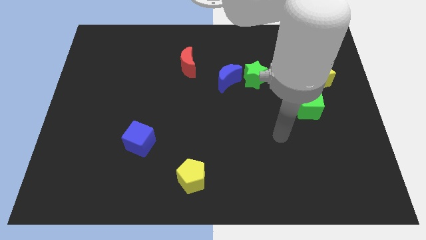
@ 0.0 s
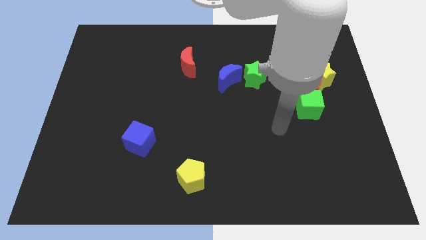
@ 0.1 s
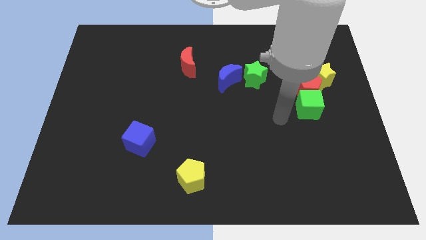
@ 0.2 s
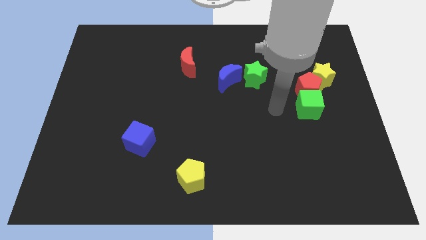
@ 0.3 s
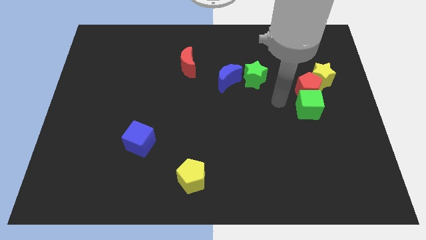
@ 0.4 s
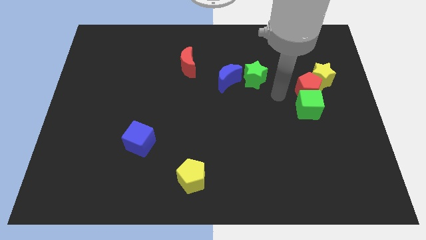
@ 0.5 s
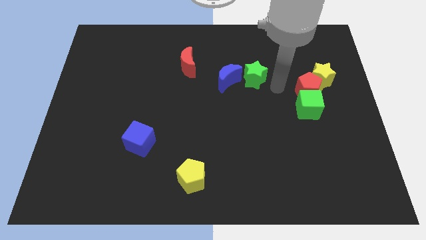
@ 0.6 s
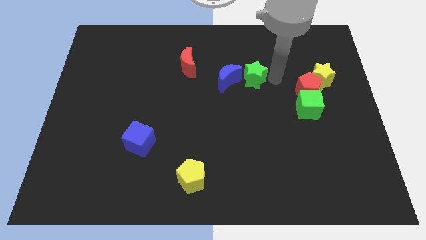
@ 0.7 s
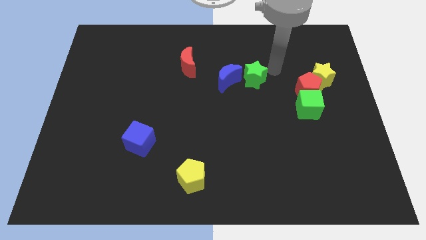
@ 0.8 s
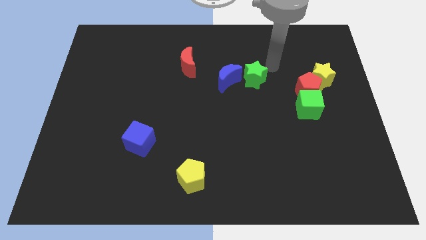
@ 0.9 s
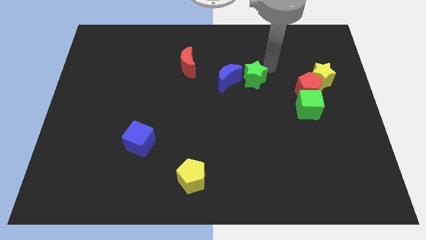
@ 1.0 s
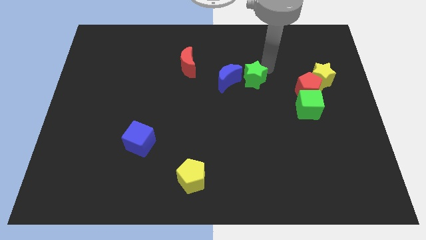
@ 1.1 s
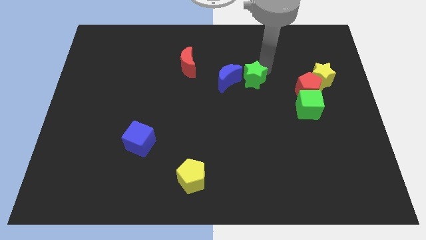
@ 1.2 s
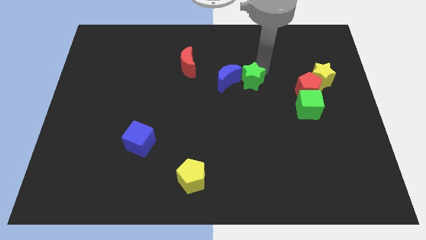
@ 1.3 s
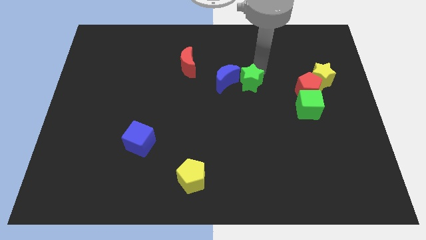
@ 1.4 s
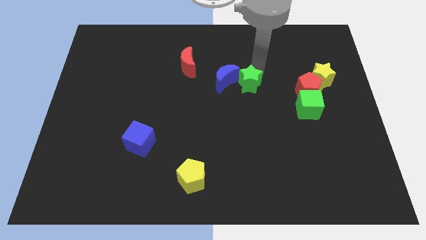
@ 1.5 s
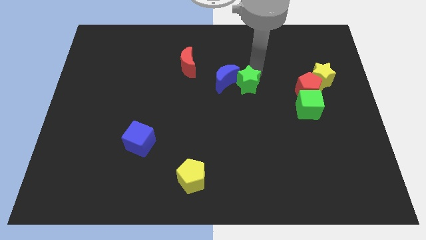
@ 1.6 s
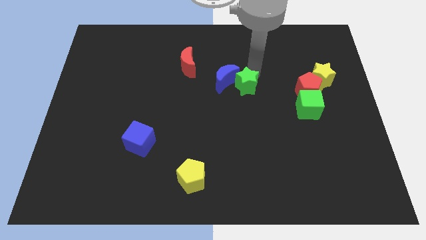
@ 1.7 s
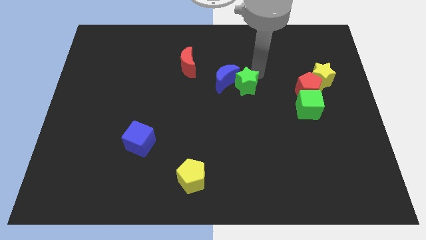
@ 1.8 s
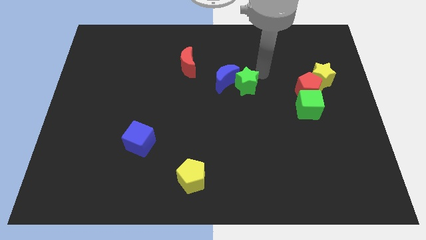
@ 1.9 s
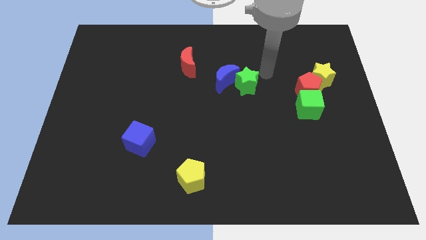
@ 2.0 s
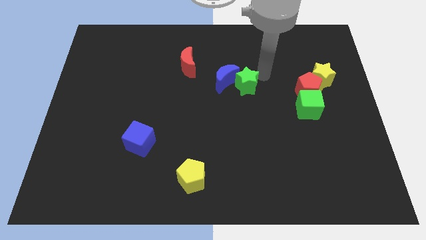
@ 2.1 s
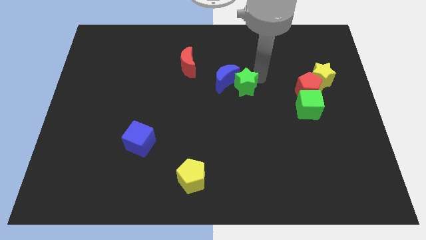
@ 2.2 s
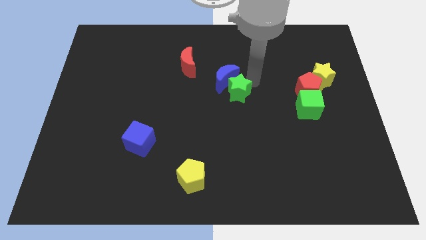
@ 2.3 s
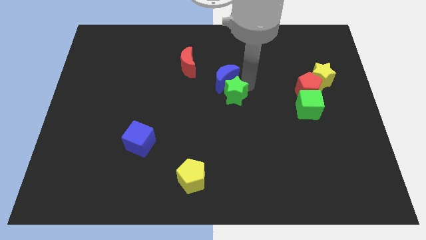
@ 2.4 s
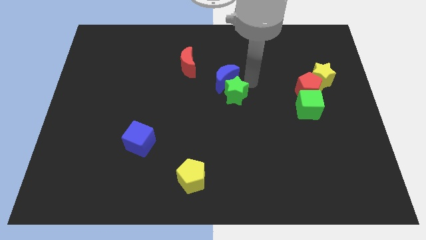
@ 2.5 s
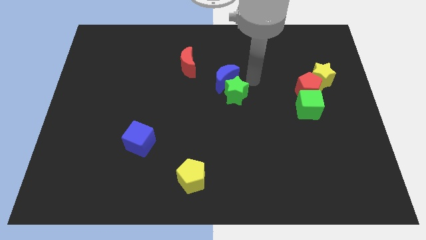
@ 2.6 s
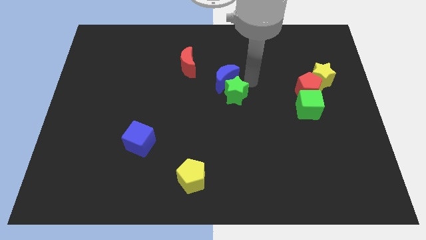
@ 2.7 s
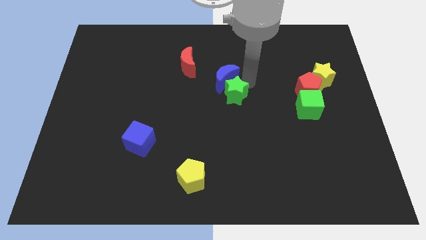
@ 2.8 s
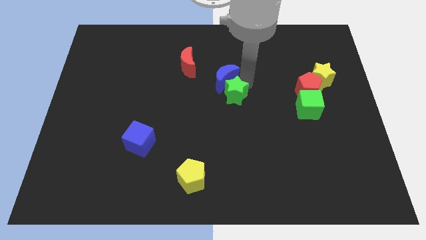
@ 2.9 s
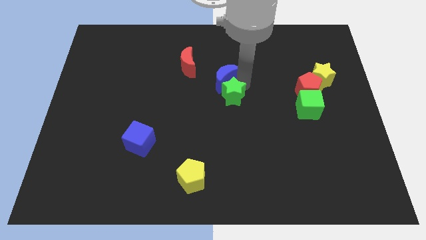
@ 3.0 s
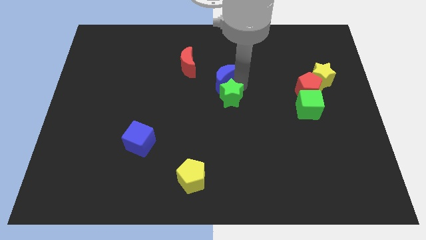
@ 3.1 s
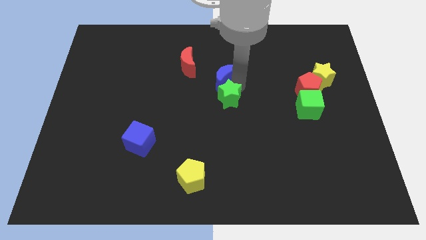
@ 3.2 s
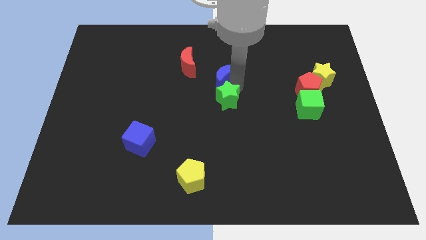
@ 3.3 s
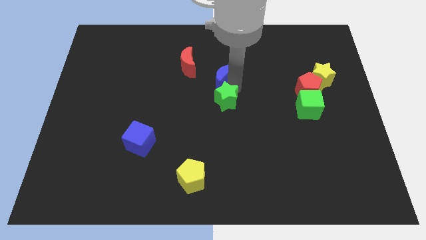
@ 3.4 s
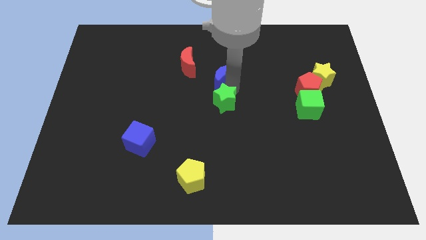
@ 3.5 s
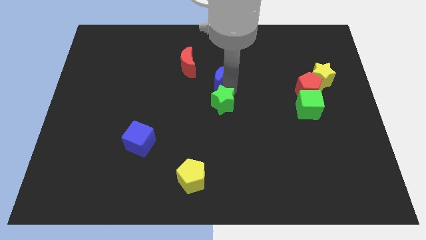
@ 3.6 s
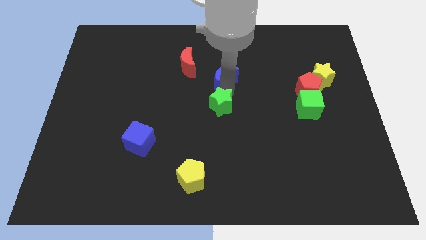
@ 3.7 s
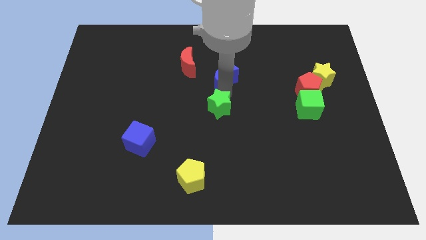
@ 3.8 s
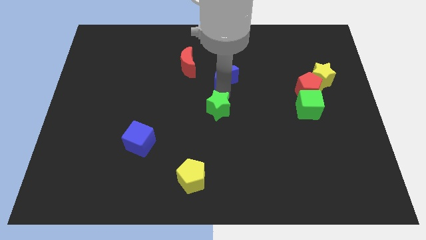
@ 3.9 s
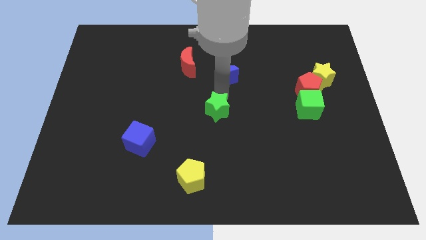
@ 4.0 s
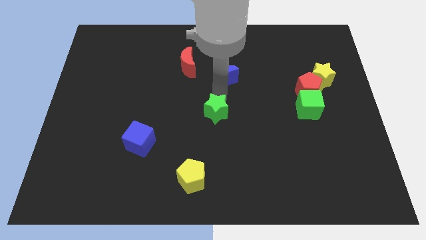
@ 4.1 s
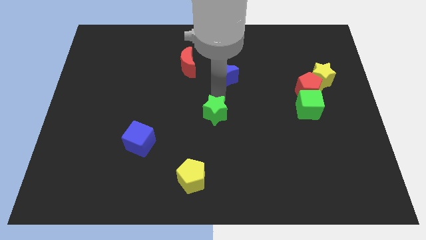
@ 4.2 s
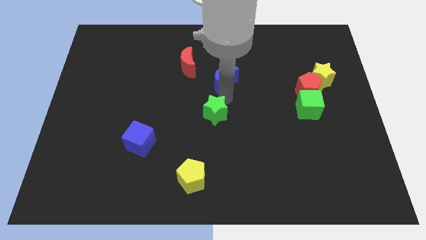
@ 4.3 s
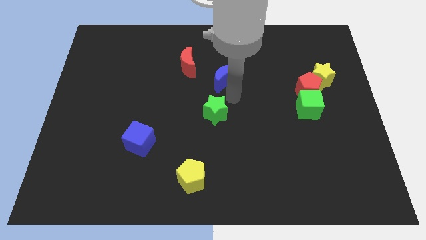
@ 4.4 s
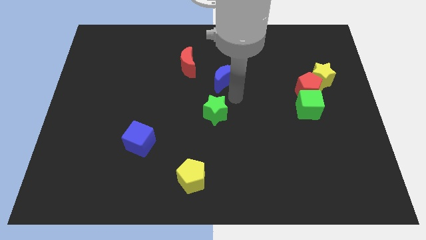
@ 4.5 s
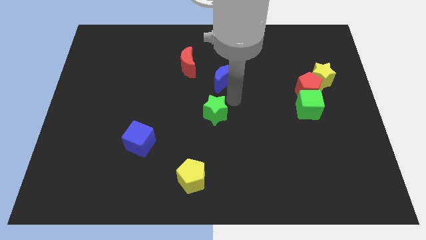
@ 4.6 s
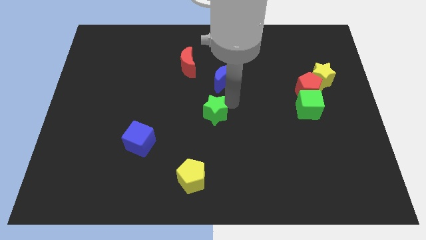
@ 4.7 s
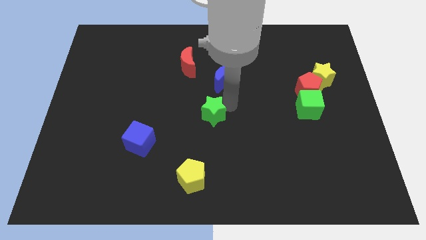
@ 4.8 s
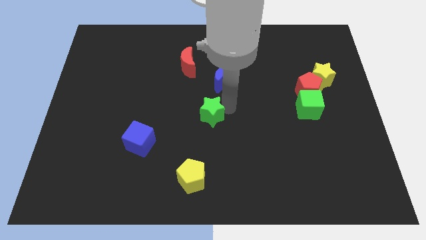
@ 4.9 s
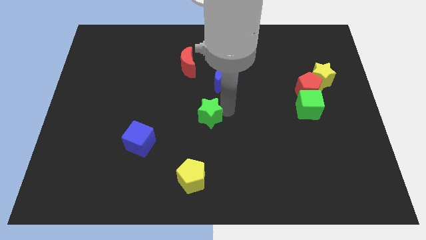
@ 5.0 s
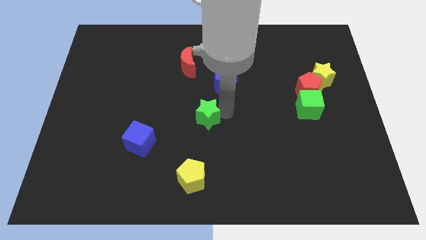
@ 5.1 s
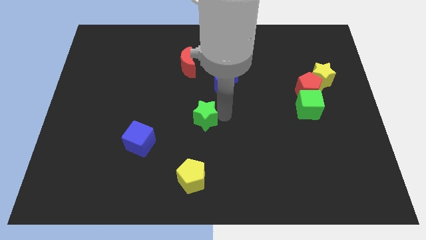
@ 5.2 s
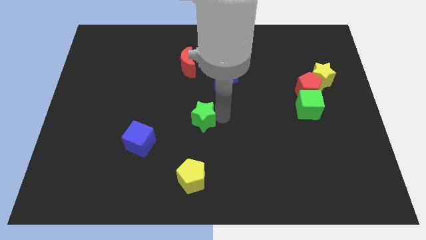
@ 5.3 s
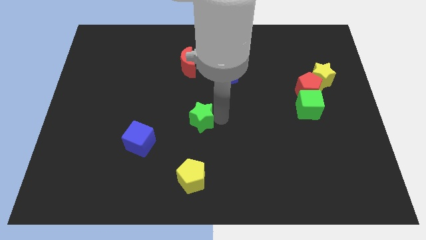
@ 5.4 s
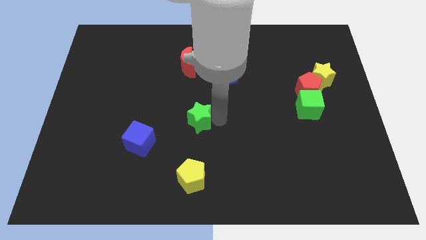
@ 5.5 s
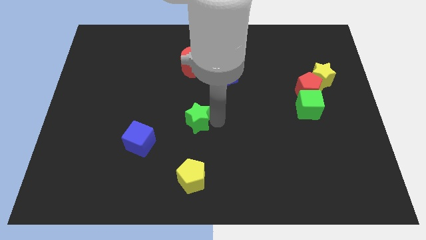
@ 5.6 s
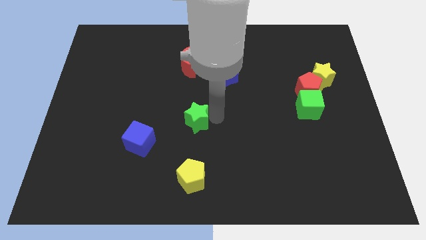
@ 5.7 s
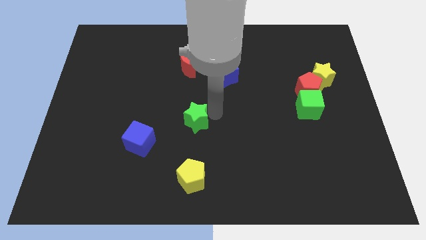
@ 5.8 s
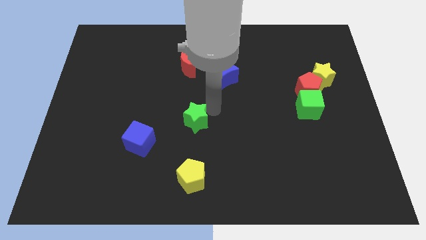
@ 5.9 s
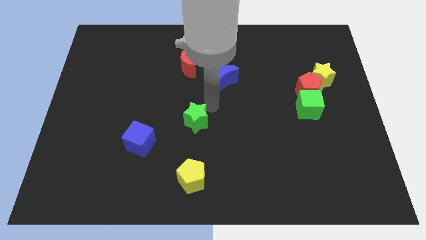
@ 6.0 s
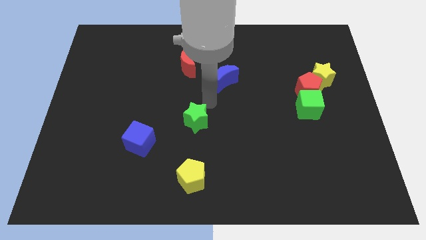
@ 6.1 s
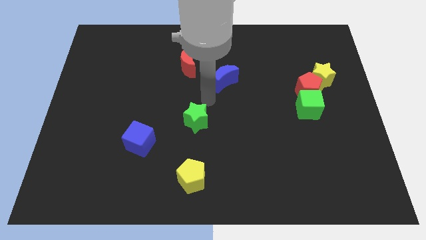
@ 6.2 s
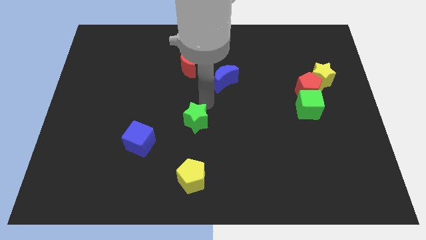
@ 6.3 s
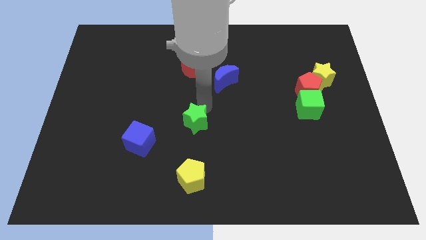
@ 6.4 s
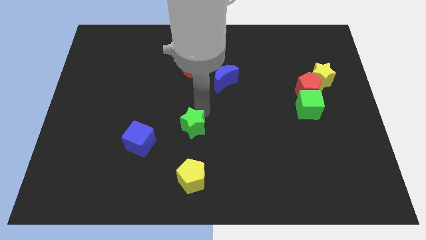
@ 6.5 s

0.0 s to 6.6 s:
push the green star diagonally downwards and left

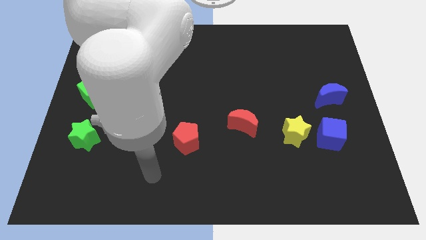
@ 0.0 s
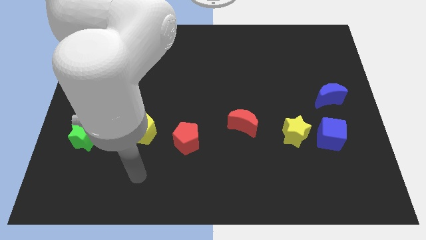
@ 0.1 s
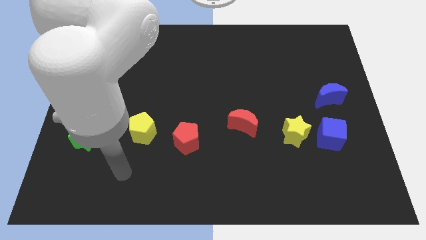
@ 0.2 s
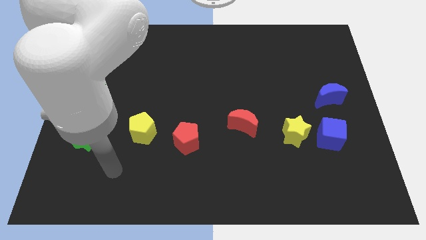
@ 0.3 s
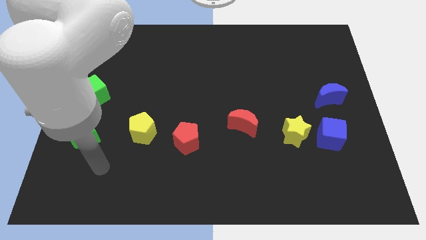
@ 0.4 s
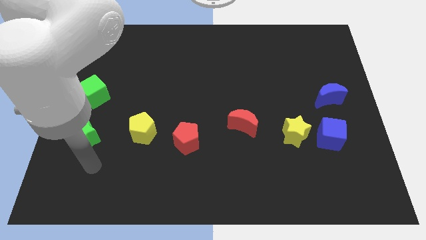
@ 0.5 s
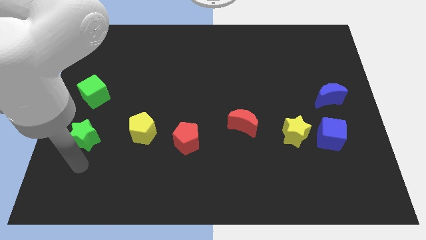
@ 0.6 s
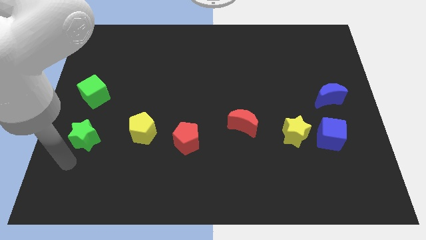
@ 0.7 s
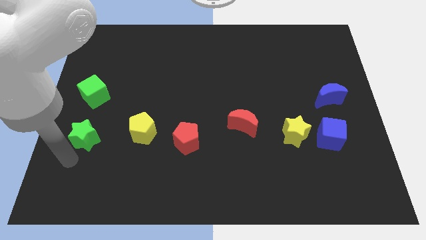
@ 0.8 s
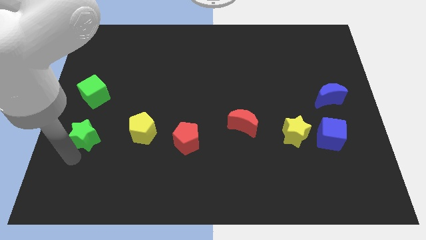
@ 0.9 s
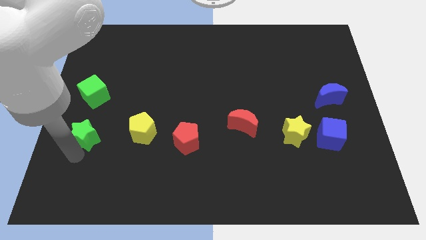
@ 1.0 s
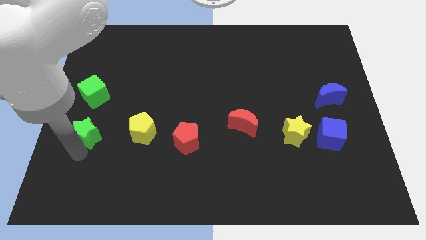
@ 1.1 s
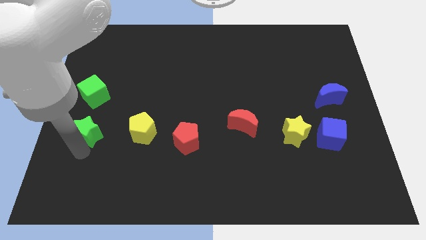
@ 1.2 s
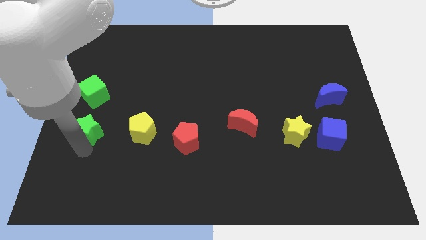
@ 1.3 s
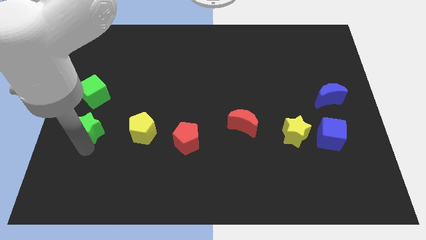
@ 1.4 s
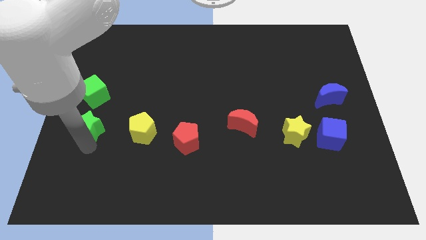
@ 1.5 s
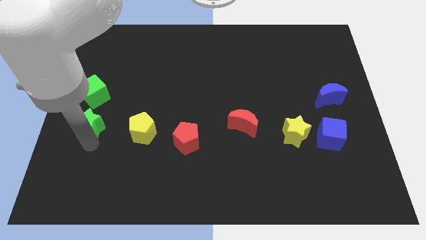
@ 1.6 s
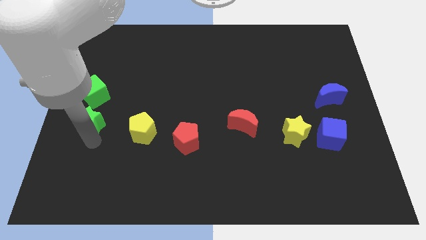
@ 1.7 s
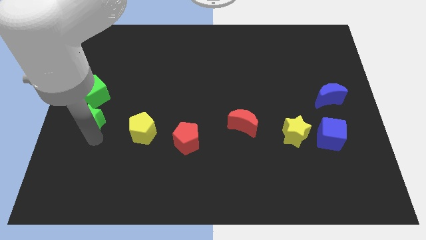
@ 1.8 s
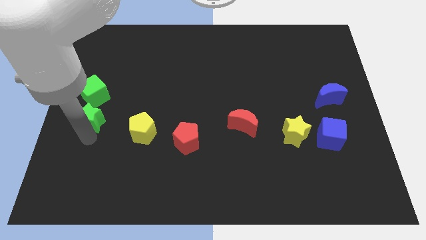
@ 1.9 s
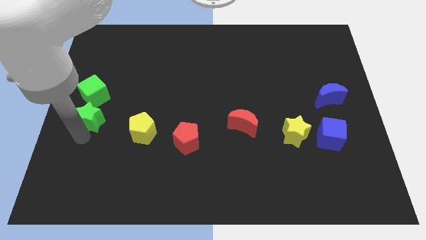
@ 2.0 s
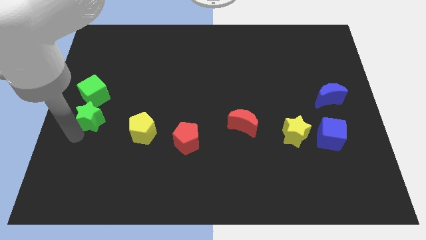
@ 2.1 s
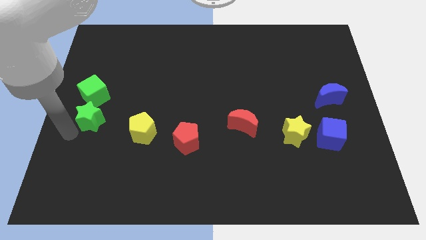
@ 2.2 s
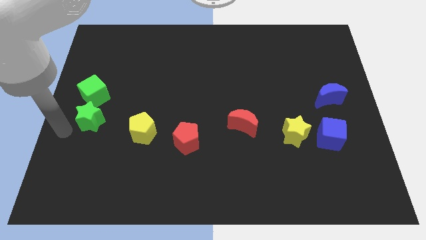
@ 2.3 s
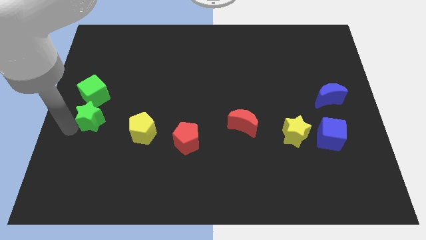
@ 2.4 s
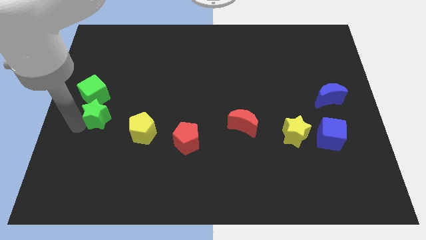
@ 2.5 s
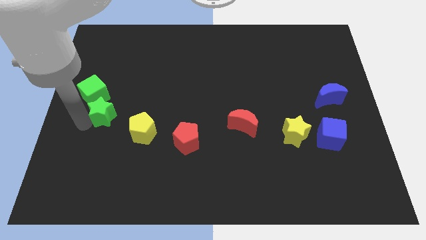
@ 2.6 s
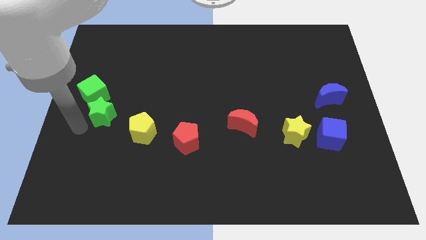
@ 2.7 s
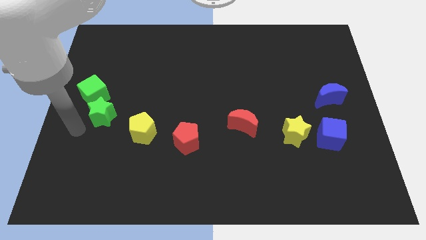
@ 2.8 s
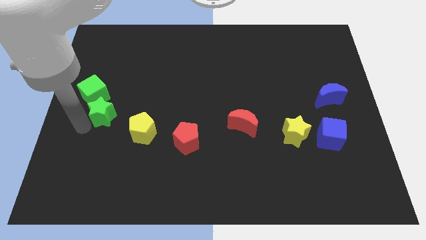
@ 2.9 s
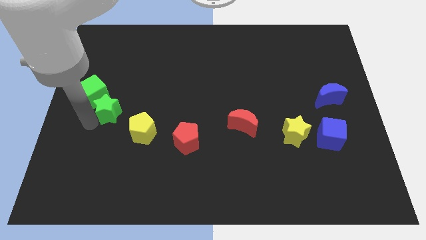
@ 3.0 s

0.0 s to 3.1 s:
slightly slide the green star diagonally up and to the right
